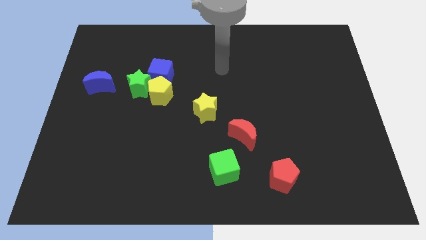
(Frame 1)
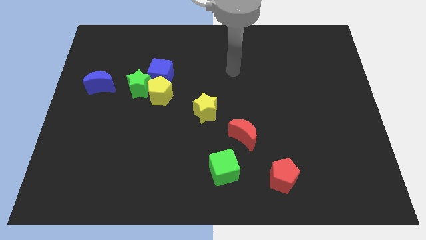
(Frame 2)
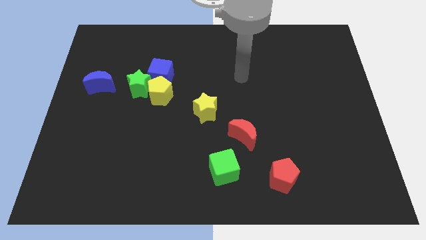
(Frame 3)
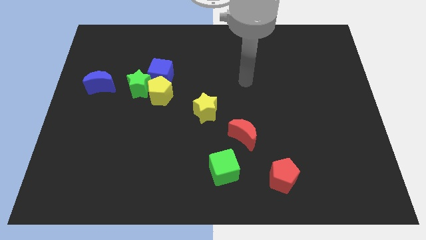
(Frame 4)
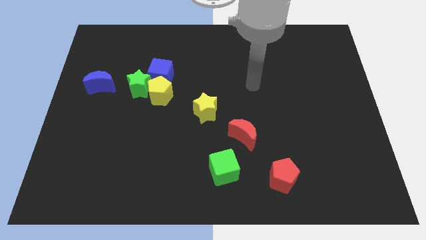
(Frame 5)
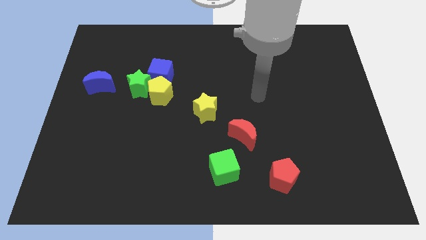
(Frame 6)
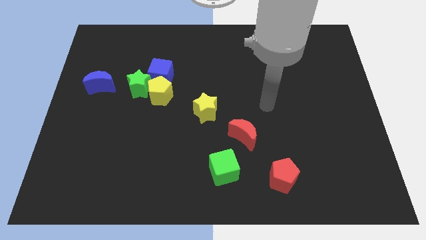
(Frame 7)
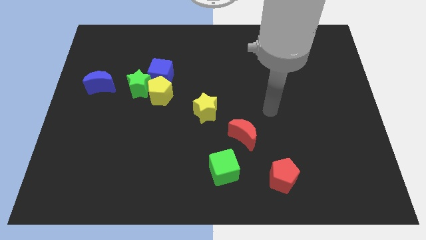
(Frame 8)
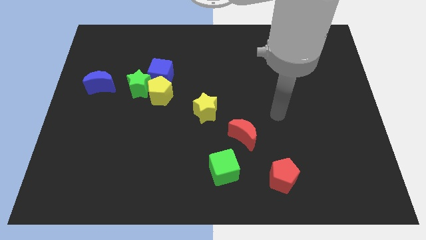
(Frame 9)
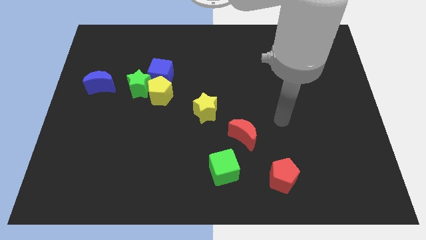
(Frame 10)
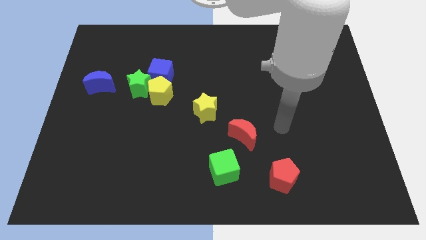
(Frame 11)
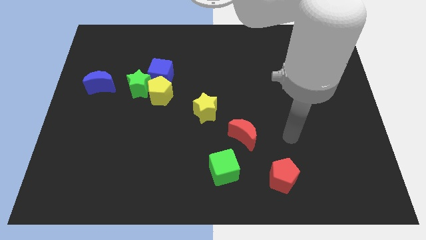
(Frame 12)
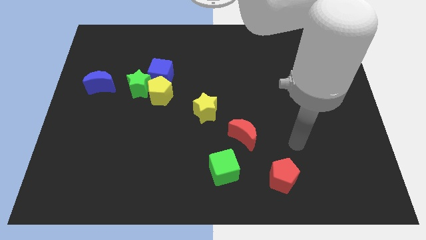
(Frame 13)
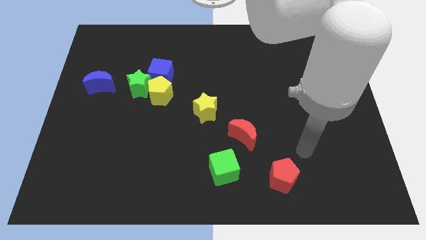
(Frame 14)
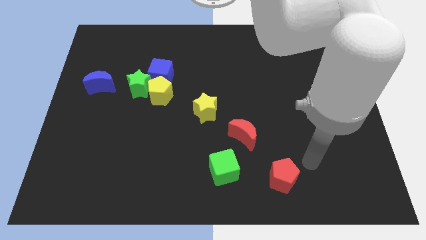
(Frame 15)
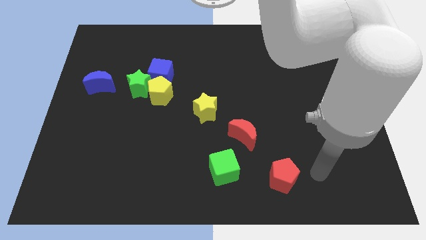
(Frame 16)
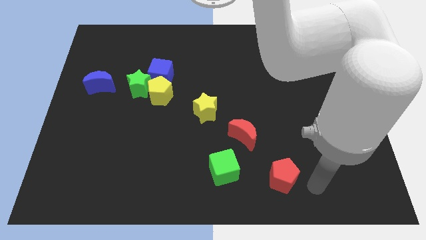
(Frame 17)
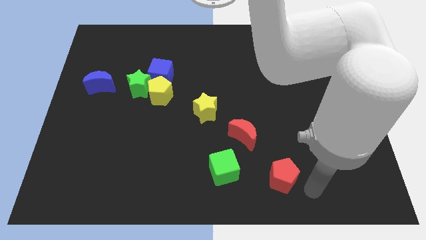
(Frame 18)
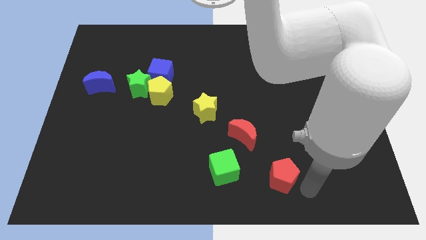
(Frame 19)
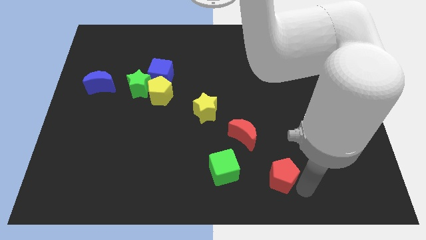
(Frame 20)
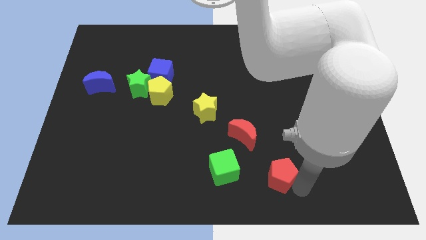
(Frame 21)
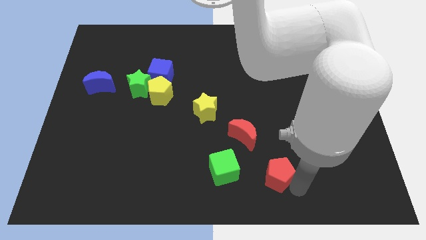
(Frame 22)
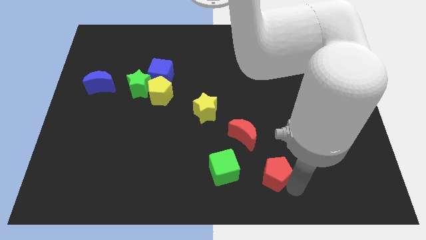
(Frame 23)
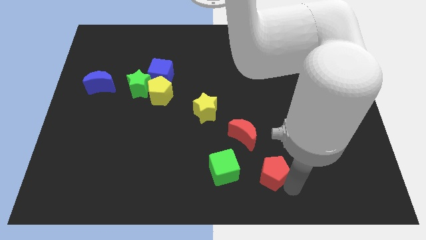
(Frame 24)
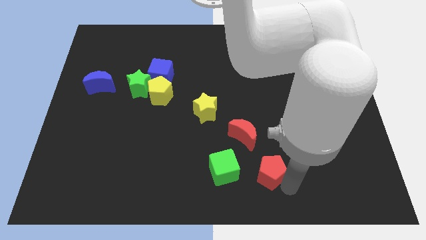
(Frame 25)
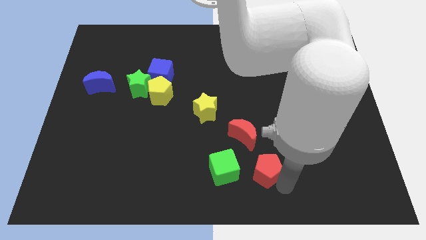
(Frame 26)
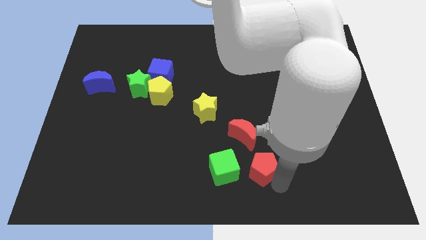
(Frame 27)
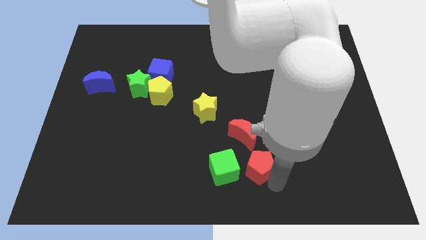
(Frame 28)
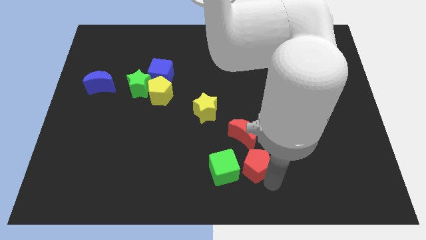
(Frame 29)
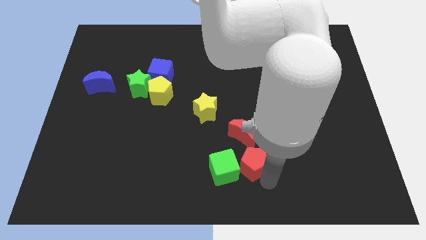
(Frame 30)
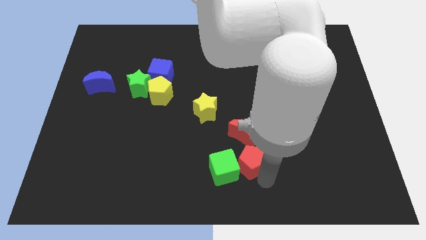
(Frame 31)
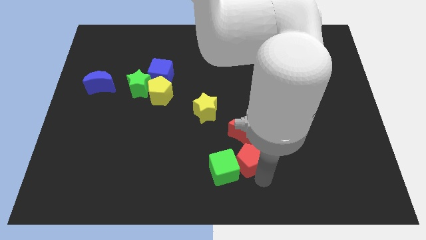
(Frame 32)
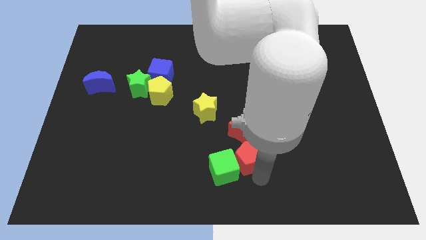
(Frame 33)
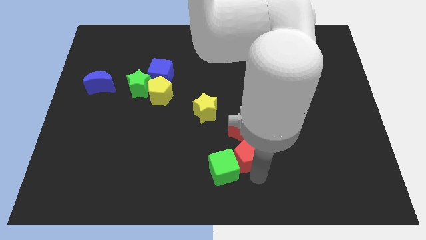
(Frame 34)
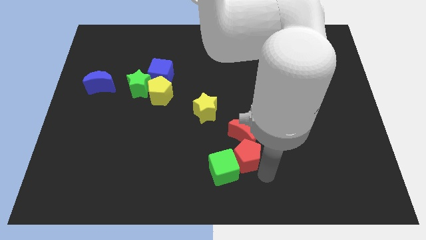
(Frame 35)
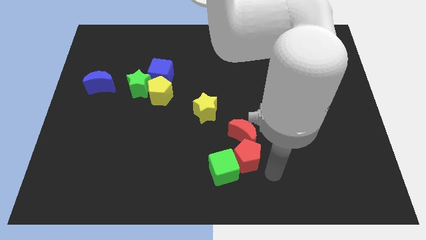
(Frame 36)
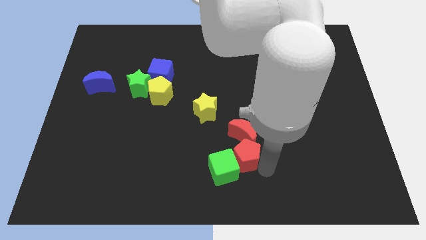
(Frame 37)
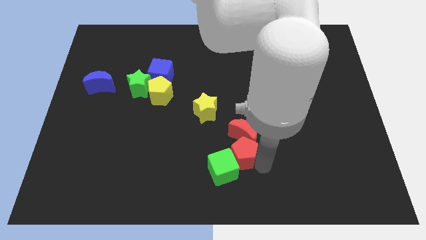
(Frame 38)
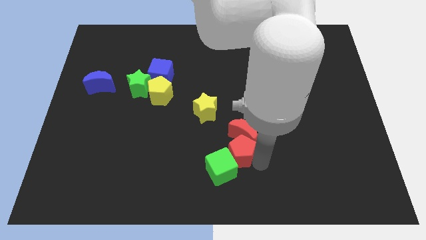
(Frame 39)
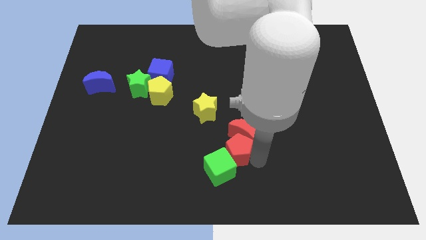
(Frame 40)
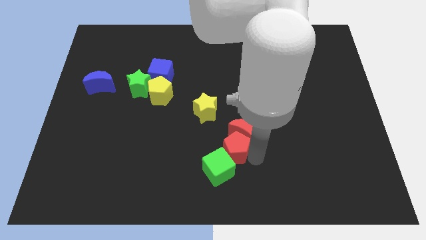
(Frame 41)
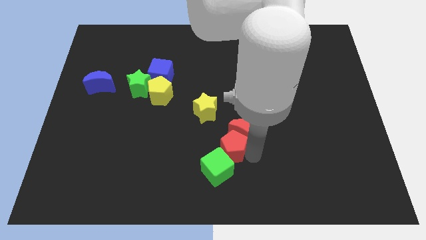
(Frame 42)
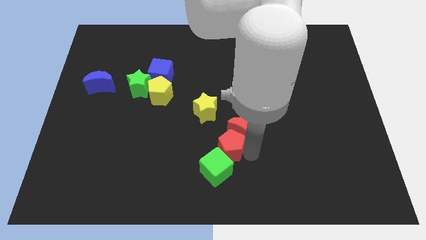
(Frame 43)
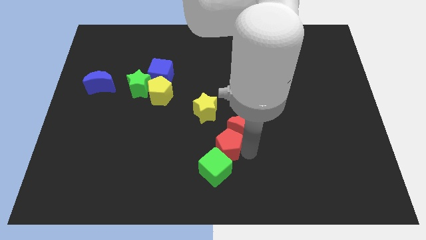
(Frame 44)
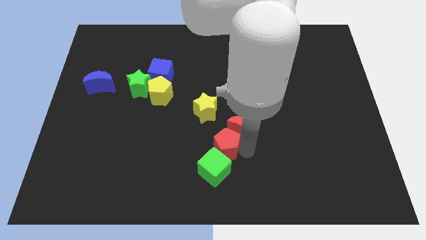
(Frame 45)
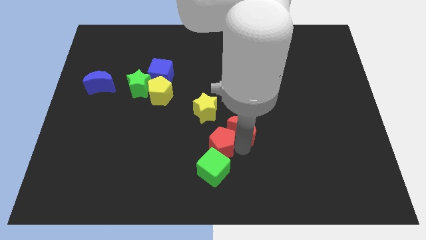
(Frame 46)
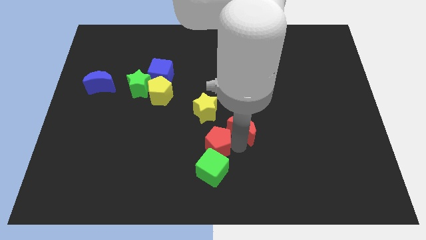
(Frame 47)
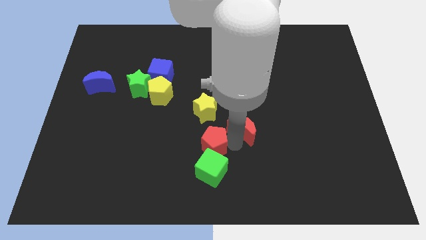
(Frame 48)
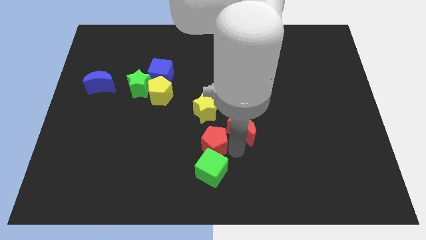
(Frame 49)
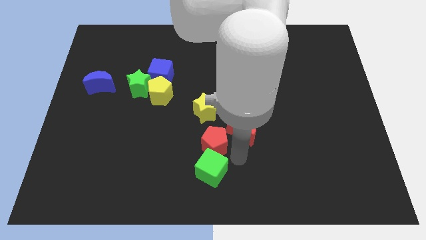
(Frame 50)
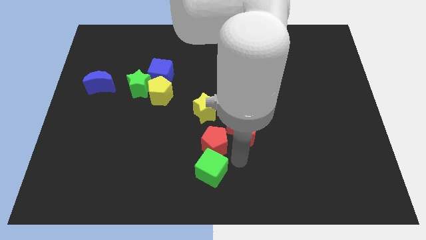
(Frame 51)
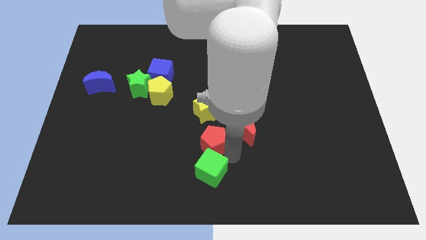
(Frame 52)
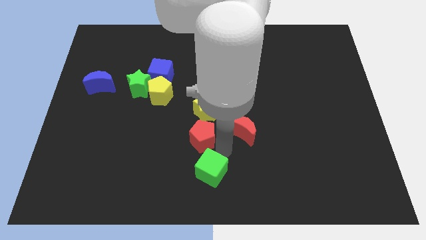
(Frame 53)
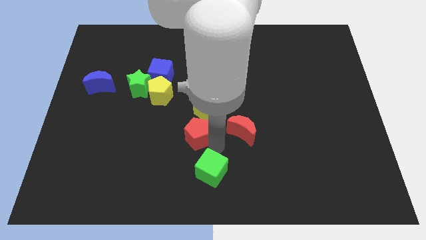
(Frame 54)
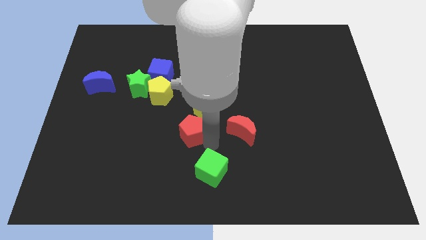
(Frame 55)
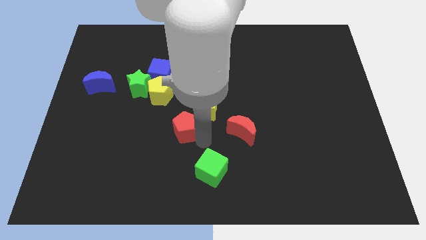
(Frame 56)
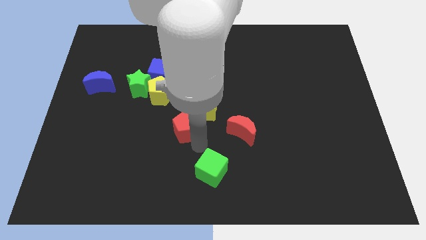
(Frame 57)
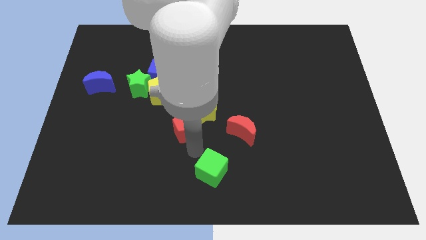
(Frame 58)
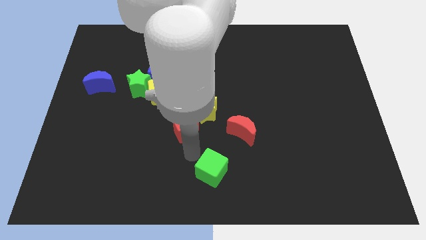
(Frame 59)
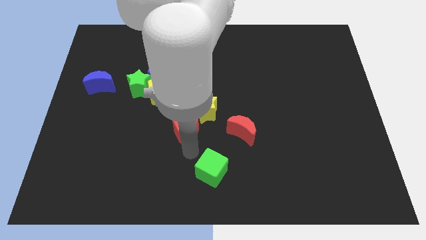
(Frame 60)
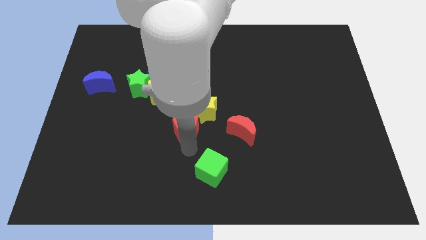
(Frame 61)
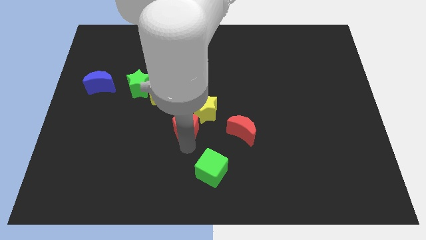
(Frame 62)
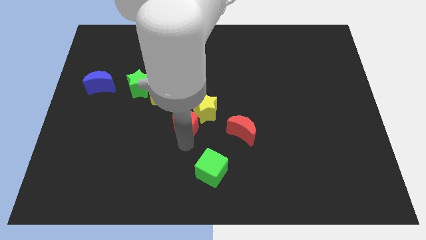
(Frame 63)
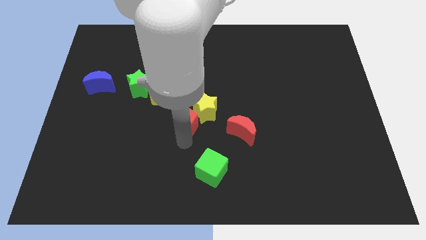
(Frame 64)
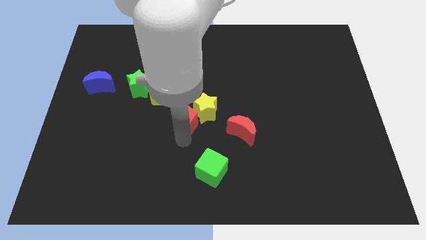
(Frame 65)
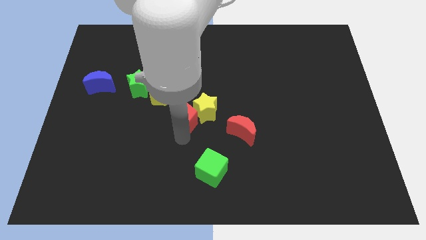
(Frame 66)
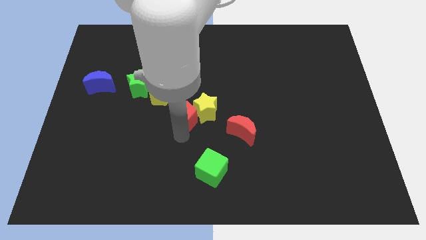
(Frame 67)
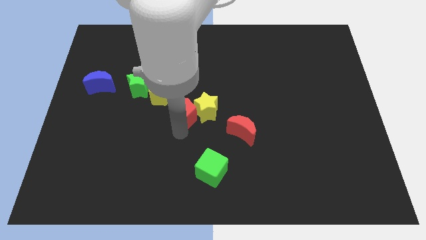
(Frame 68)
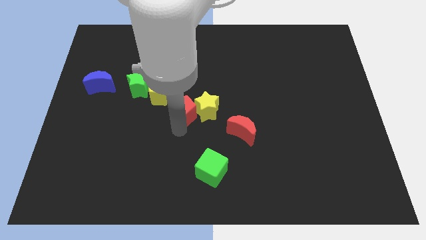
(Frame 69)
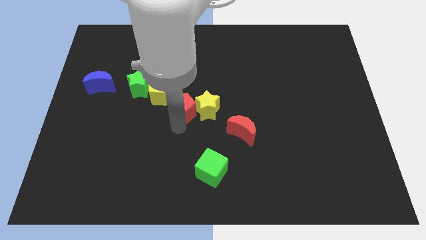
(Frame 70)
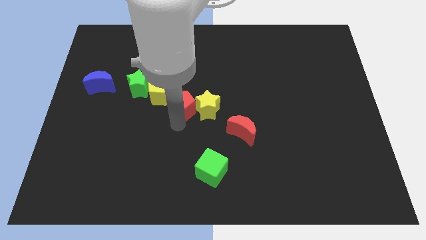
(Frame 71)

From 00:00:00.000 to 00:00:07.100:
put the red pentagon diagonally down and to the right of the blue cube

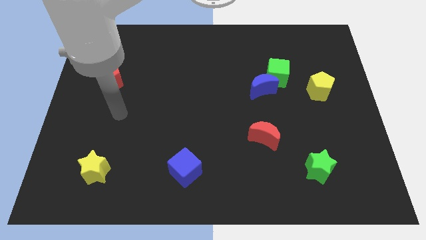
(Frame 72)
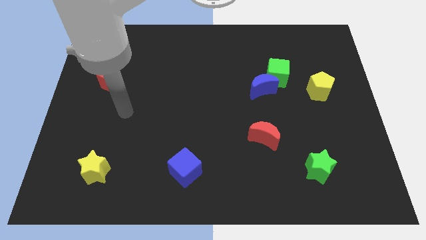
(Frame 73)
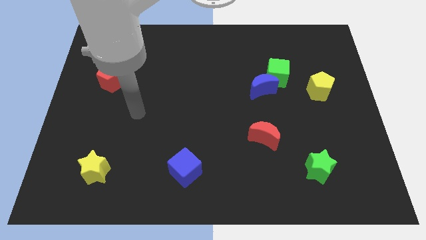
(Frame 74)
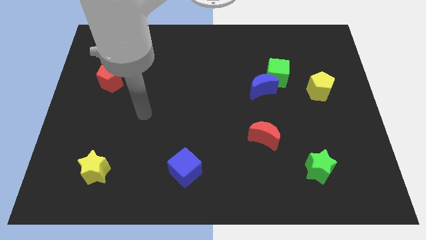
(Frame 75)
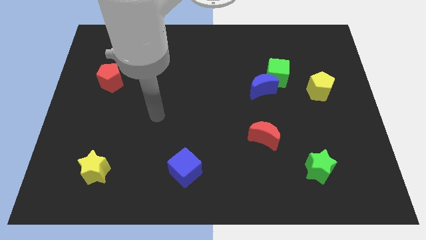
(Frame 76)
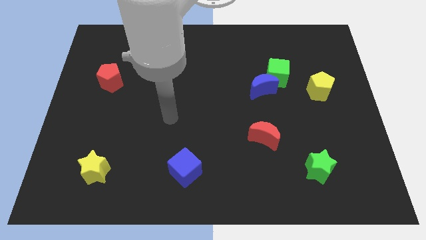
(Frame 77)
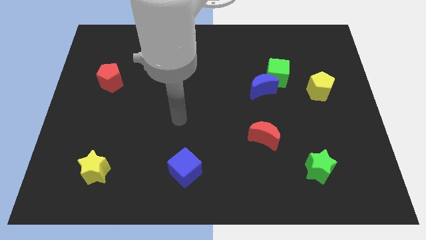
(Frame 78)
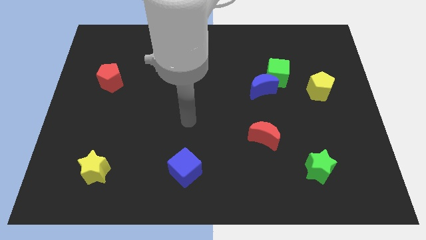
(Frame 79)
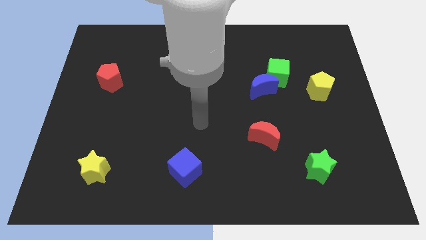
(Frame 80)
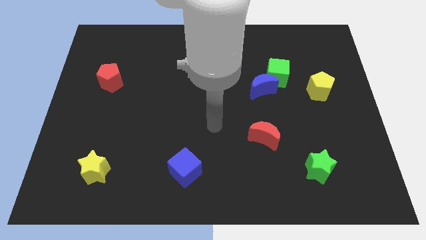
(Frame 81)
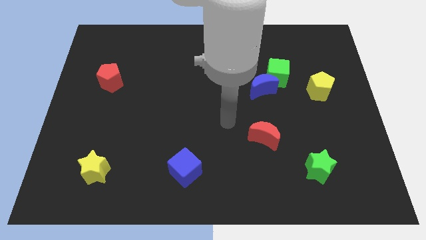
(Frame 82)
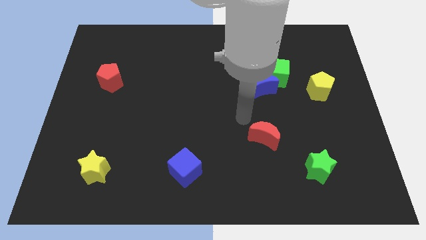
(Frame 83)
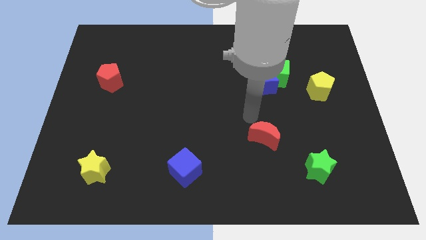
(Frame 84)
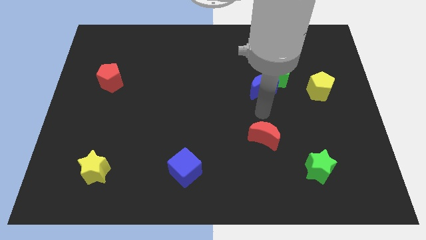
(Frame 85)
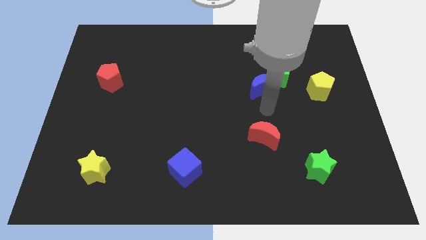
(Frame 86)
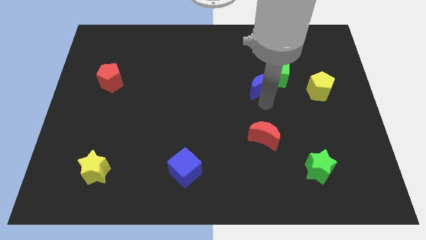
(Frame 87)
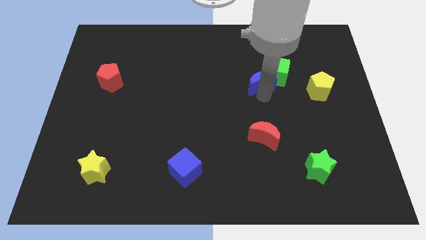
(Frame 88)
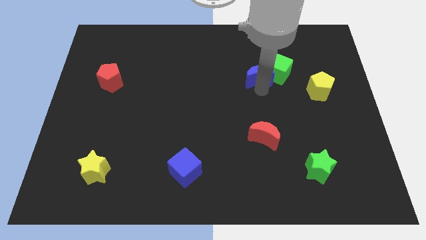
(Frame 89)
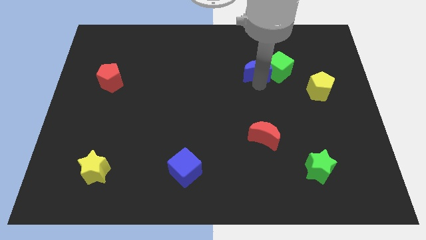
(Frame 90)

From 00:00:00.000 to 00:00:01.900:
push the blue moon diagonally up and to the left of the green cube
